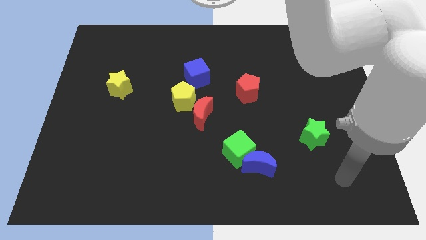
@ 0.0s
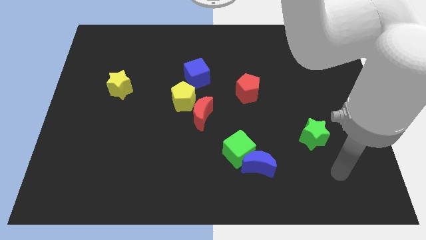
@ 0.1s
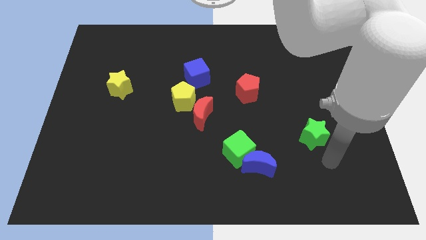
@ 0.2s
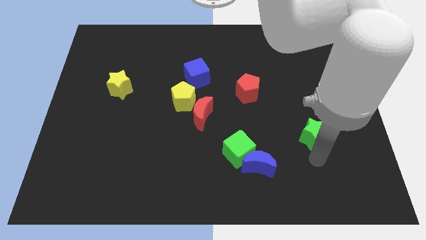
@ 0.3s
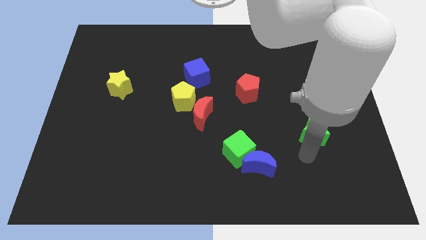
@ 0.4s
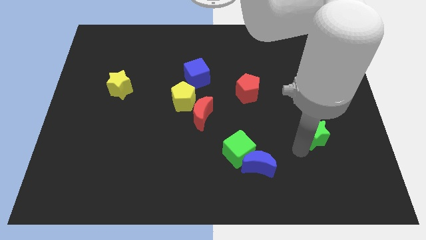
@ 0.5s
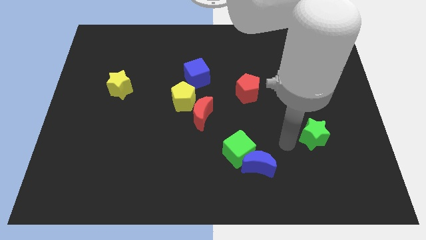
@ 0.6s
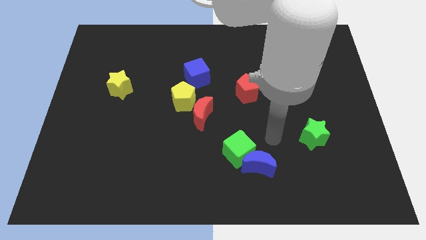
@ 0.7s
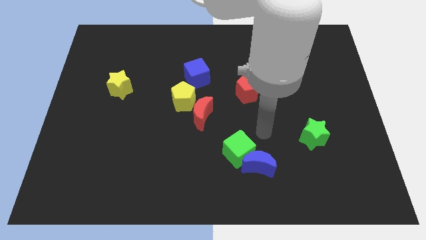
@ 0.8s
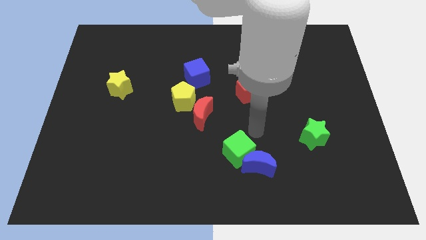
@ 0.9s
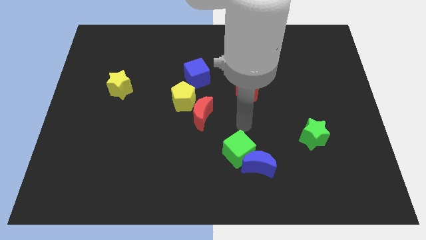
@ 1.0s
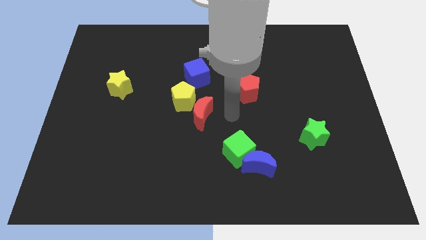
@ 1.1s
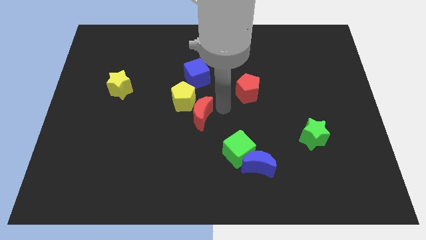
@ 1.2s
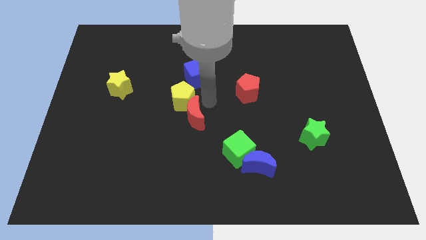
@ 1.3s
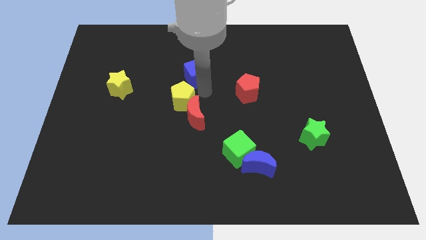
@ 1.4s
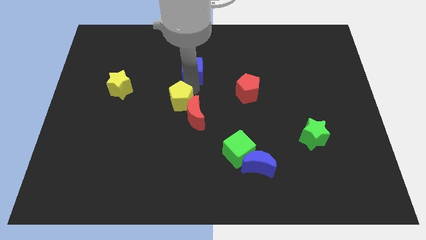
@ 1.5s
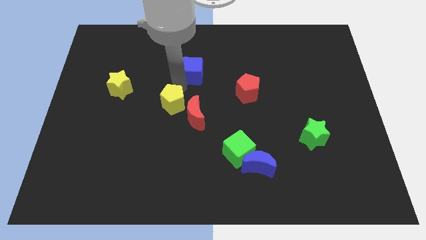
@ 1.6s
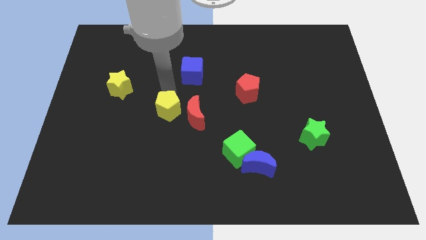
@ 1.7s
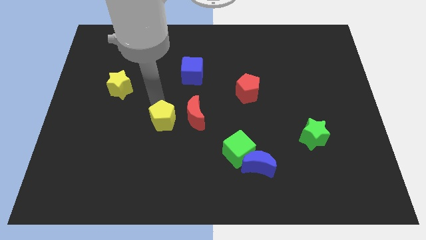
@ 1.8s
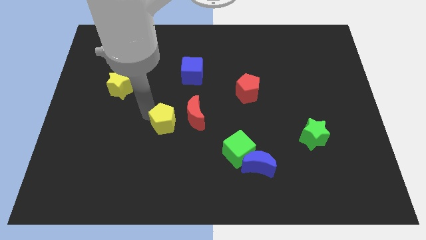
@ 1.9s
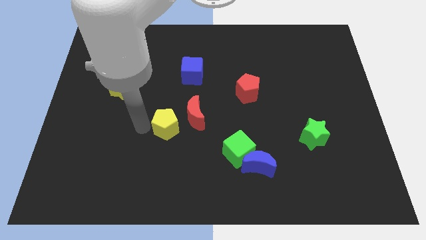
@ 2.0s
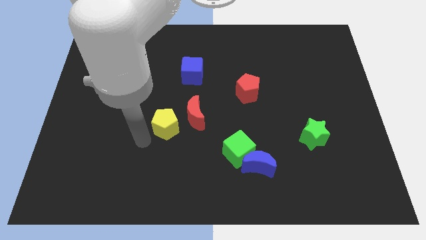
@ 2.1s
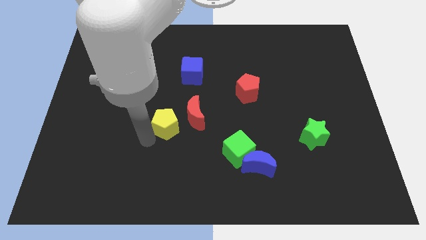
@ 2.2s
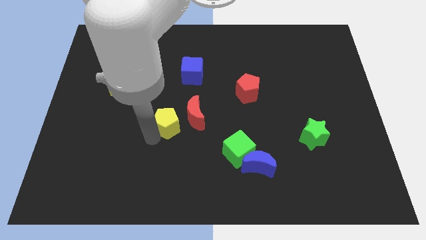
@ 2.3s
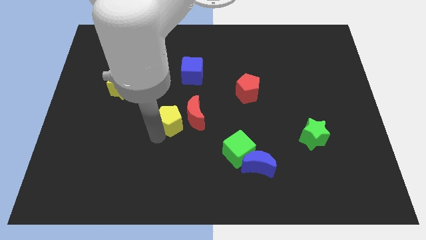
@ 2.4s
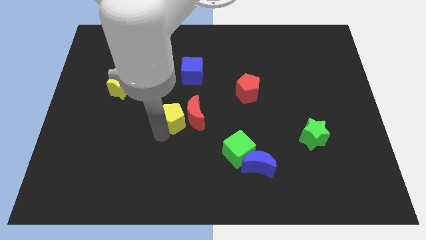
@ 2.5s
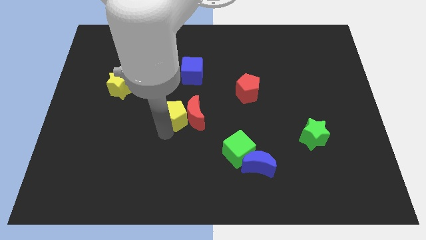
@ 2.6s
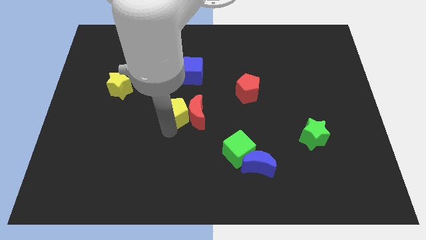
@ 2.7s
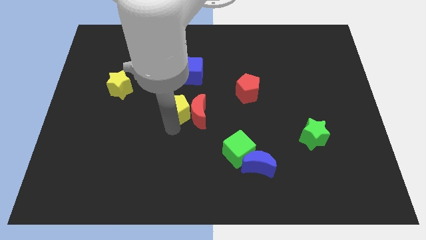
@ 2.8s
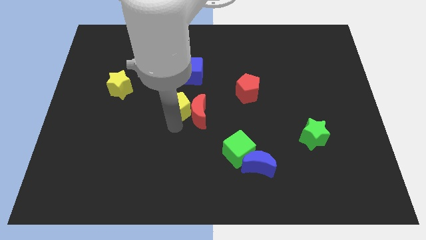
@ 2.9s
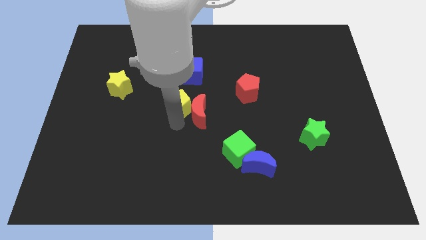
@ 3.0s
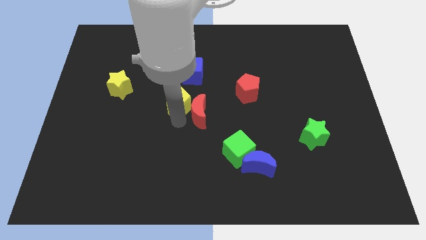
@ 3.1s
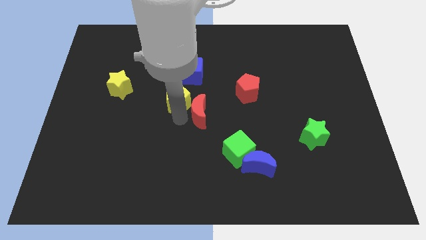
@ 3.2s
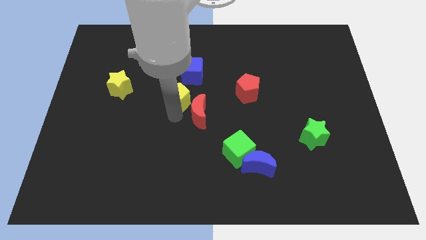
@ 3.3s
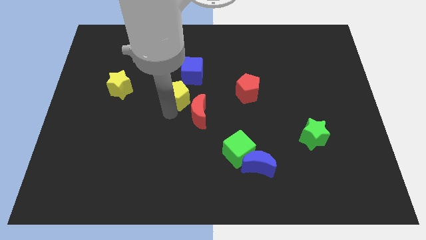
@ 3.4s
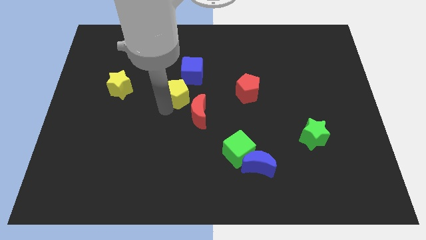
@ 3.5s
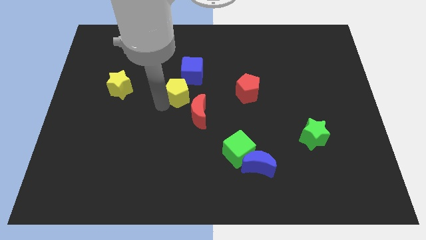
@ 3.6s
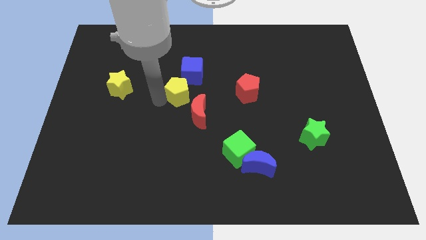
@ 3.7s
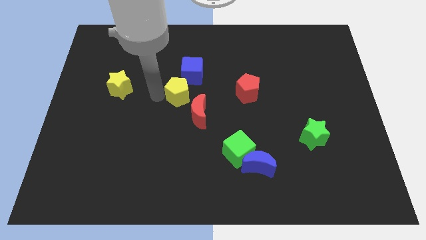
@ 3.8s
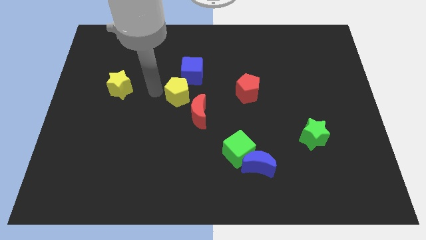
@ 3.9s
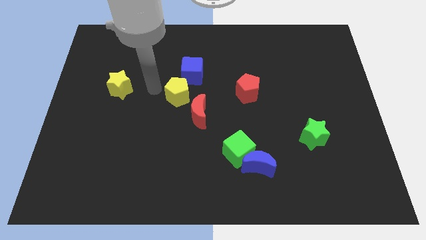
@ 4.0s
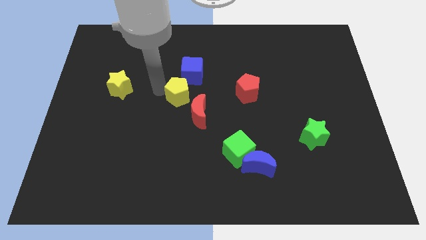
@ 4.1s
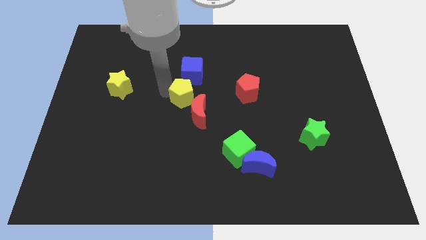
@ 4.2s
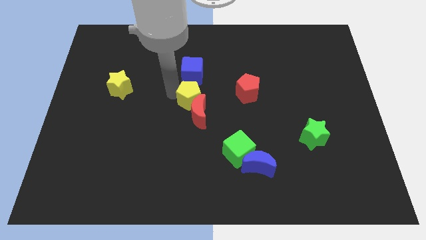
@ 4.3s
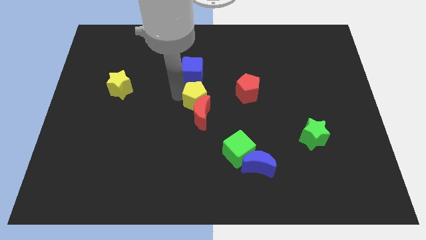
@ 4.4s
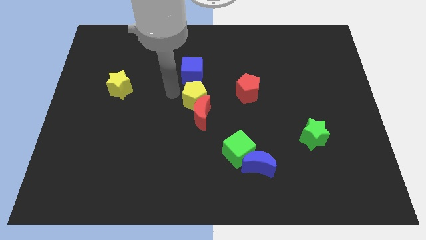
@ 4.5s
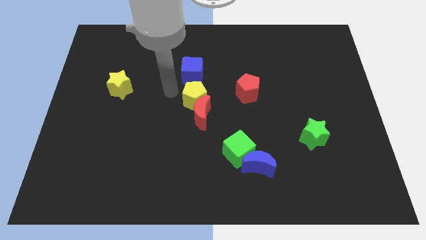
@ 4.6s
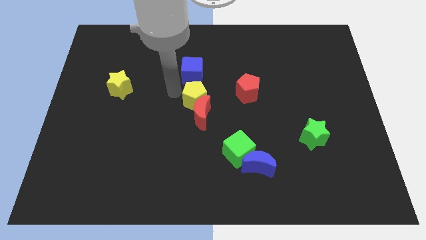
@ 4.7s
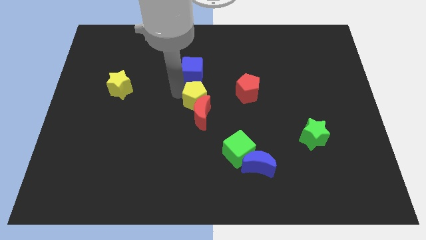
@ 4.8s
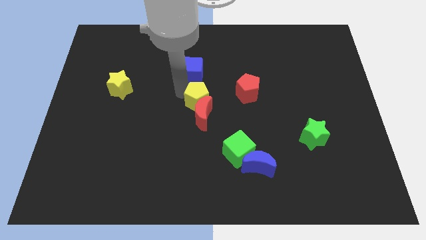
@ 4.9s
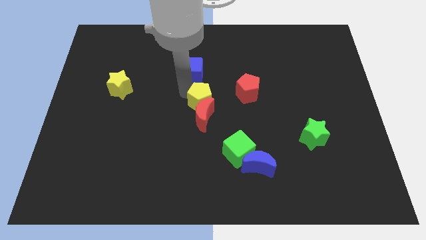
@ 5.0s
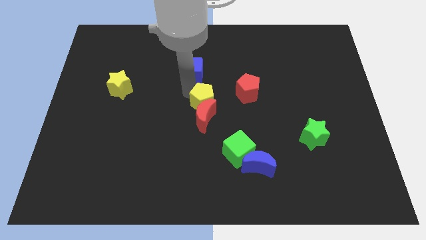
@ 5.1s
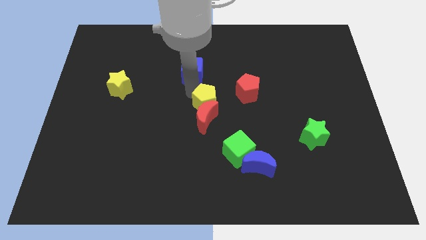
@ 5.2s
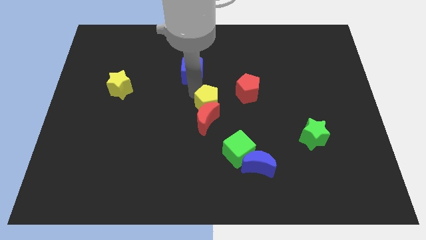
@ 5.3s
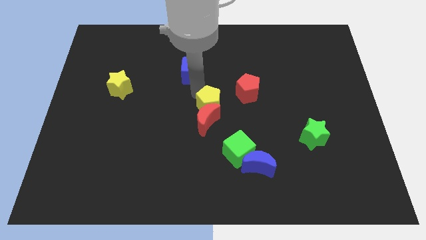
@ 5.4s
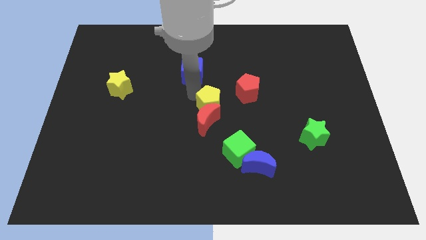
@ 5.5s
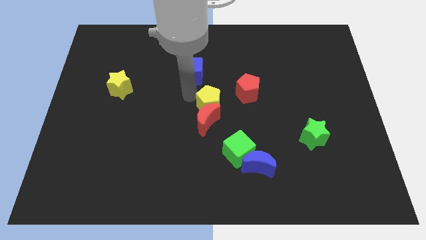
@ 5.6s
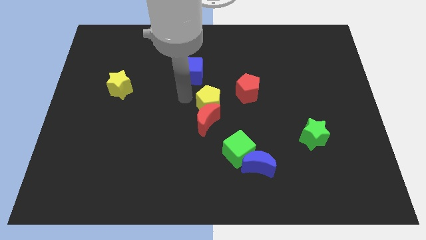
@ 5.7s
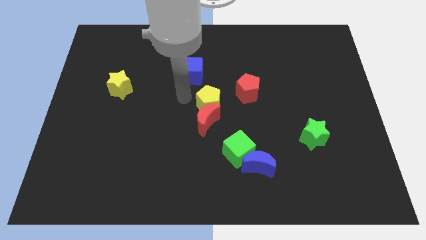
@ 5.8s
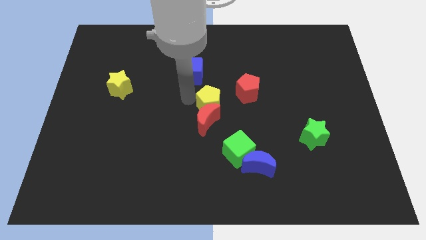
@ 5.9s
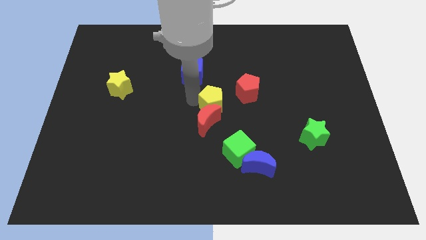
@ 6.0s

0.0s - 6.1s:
push the yellow pentagon to the right somewhat

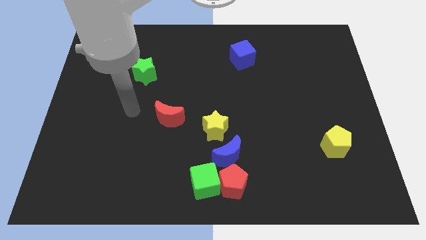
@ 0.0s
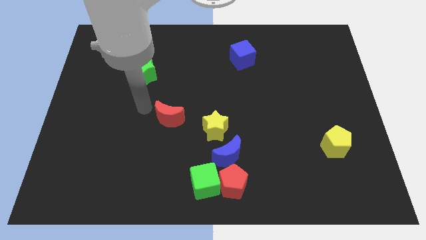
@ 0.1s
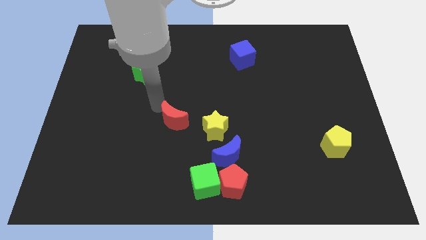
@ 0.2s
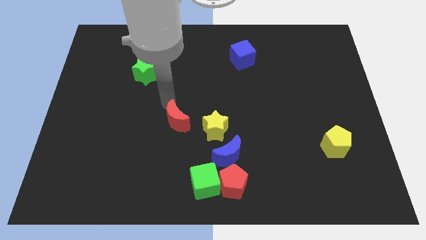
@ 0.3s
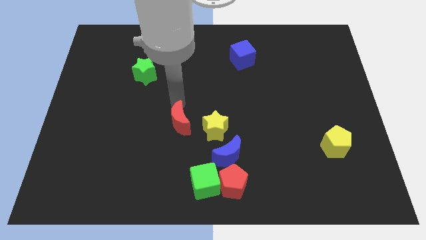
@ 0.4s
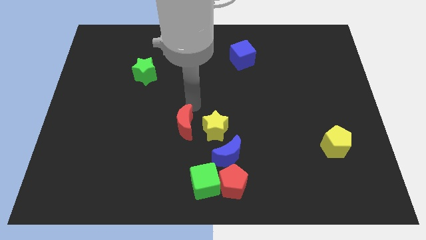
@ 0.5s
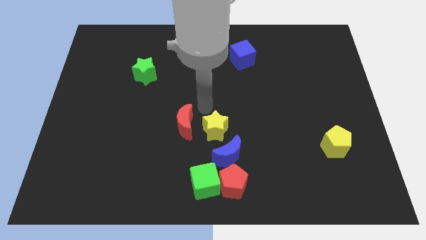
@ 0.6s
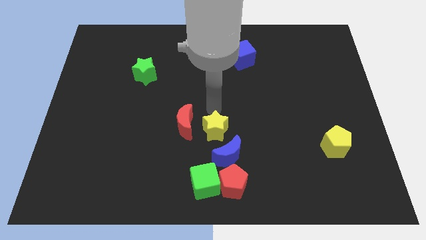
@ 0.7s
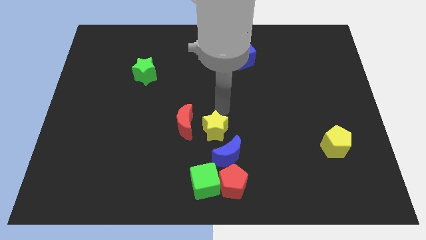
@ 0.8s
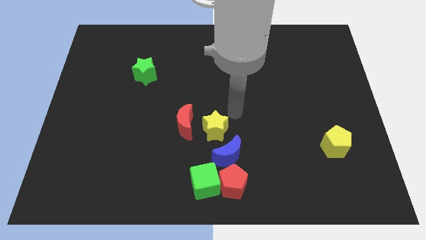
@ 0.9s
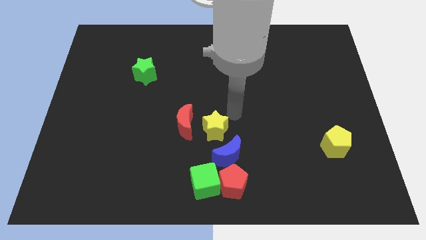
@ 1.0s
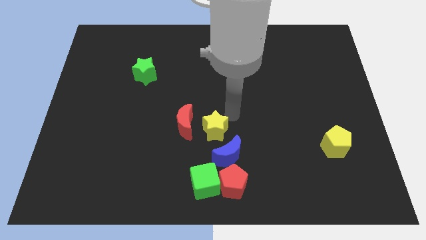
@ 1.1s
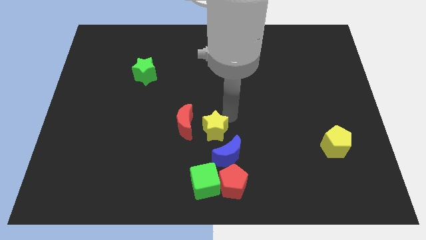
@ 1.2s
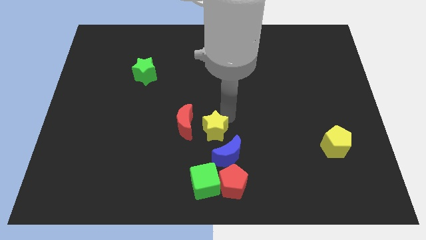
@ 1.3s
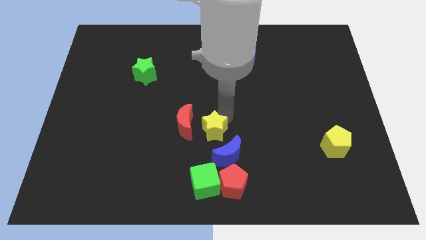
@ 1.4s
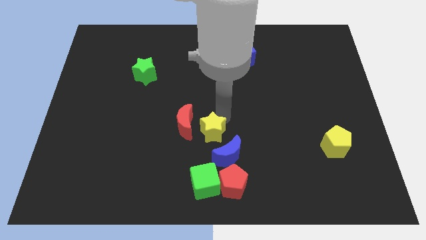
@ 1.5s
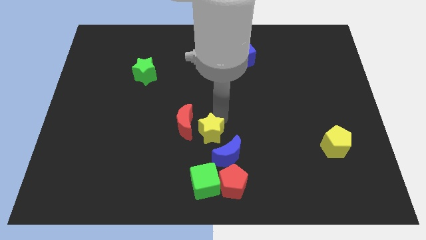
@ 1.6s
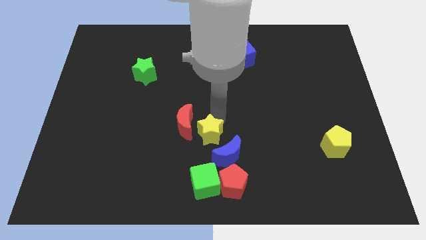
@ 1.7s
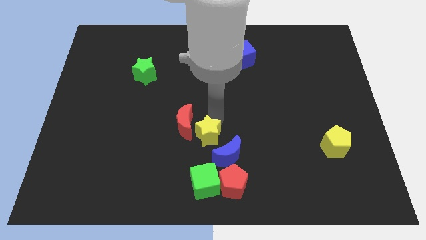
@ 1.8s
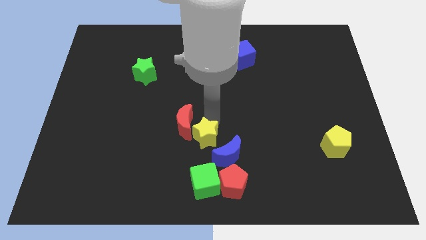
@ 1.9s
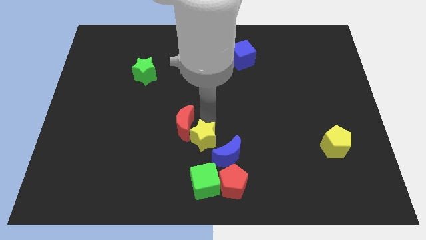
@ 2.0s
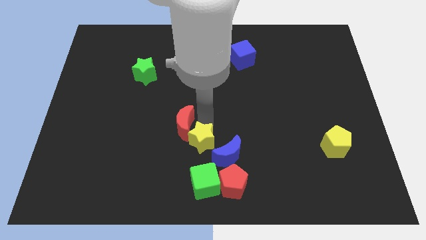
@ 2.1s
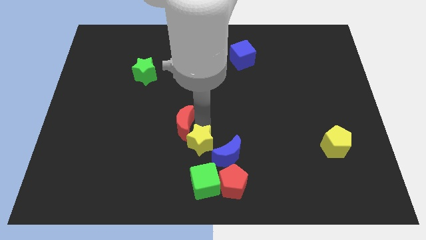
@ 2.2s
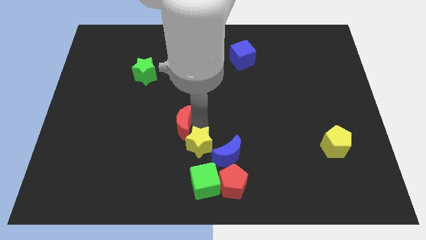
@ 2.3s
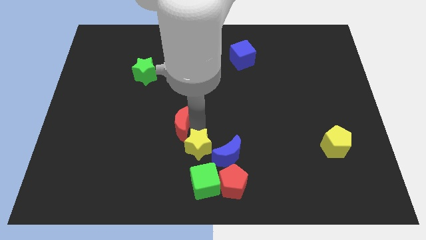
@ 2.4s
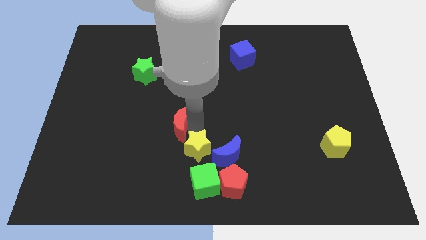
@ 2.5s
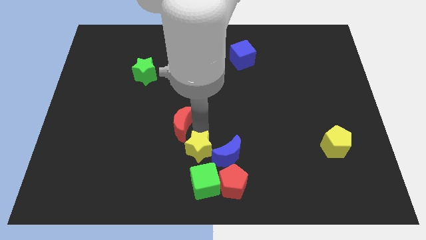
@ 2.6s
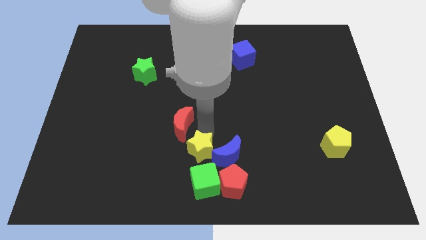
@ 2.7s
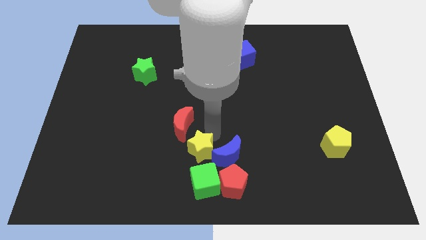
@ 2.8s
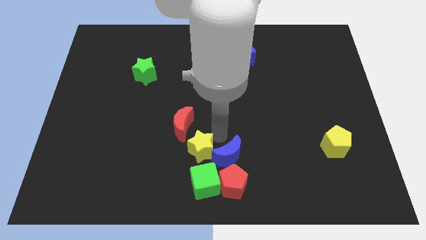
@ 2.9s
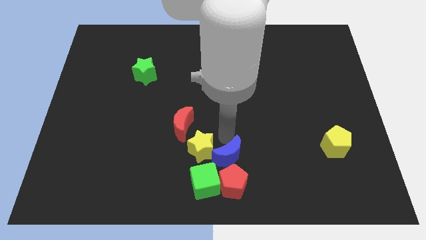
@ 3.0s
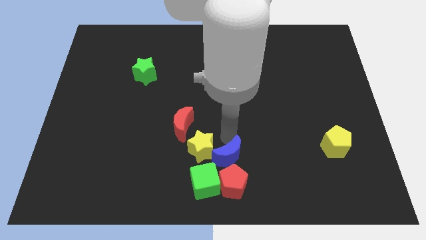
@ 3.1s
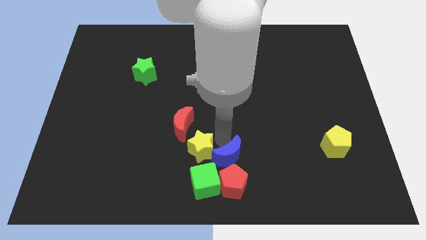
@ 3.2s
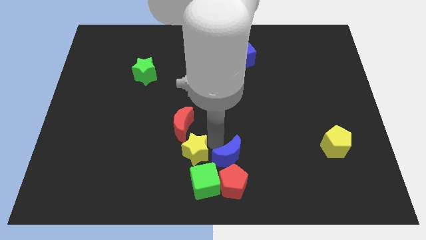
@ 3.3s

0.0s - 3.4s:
slide the yellow star diagonally down and left a bit
